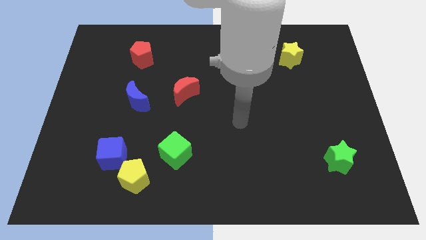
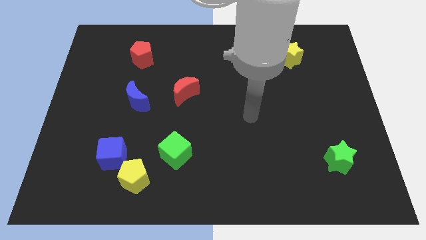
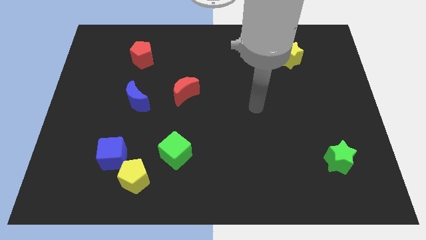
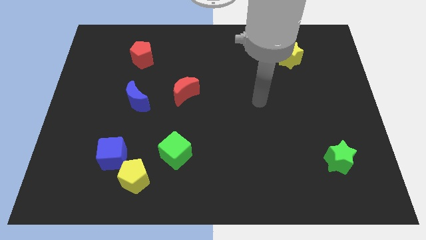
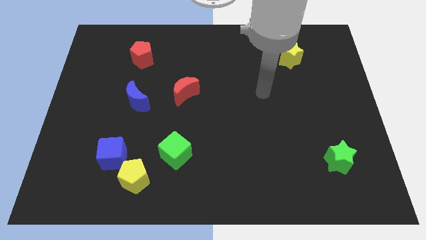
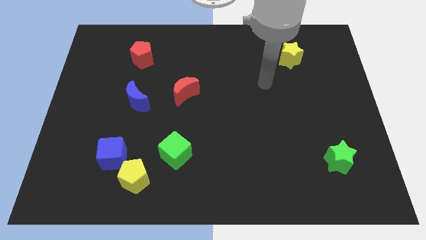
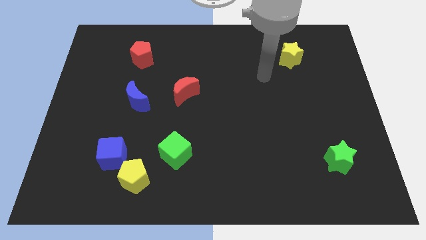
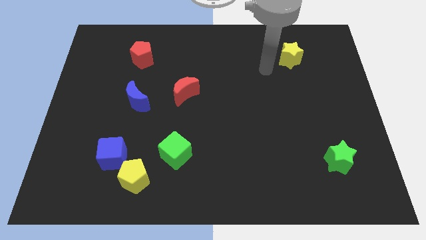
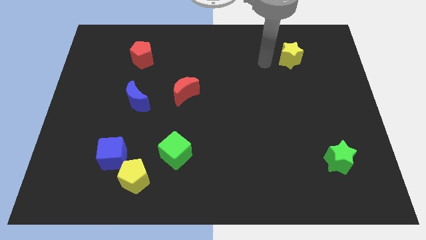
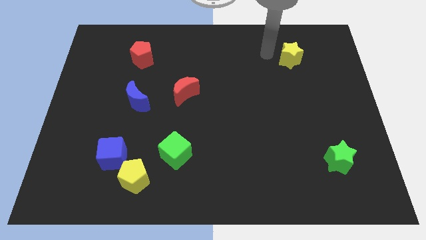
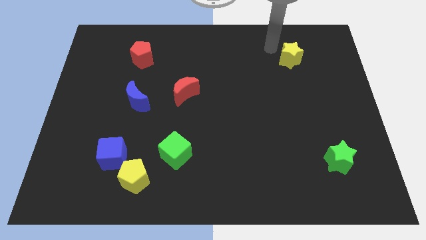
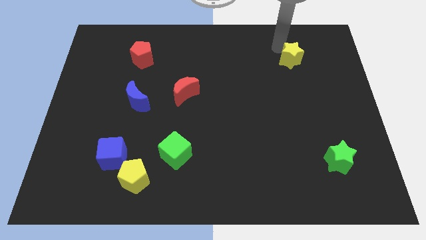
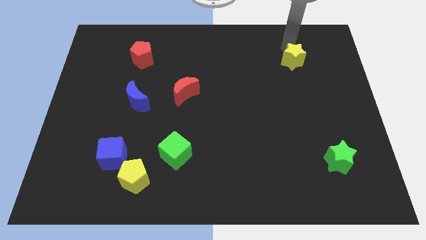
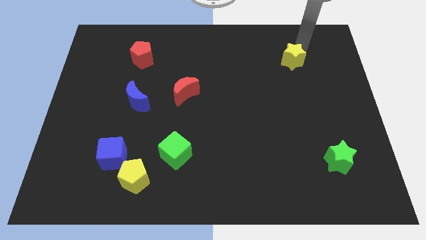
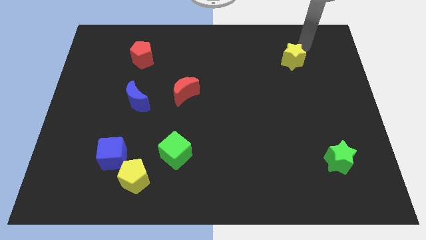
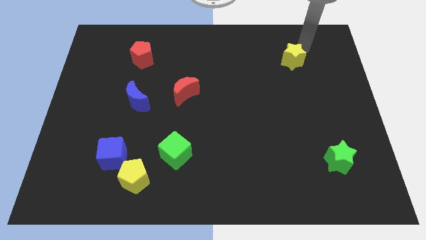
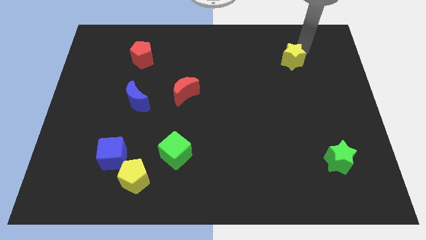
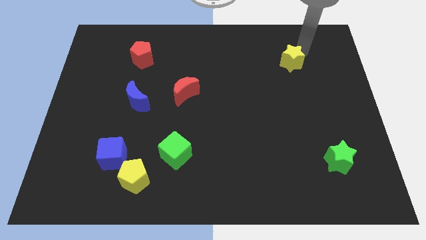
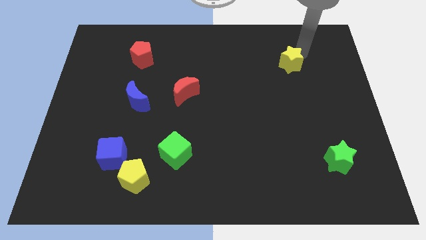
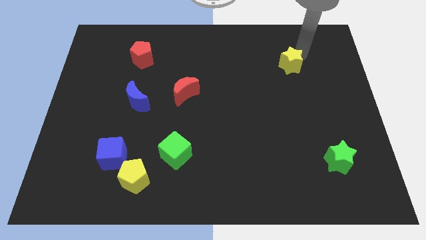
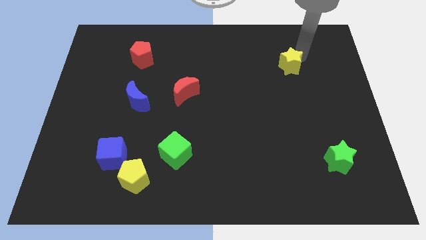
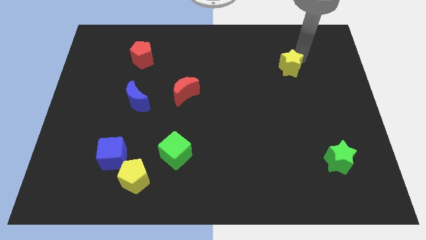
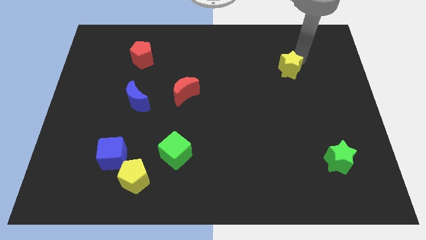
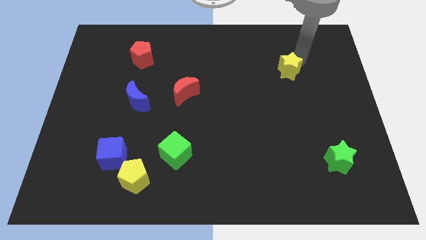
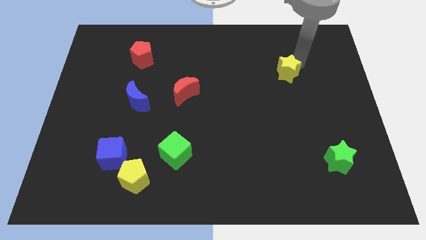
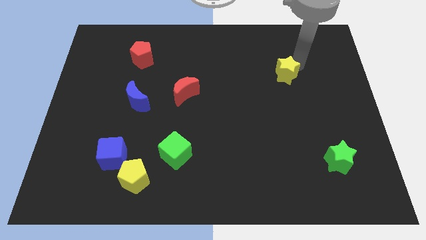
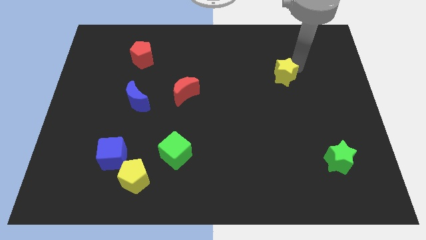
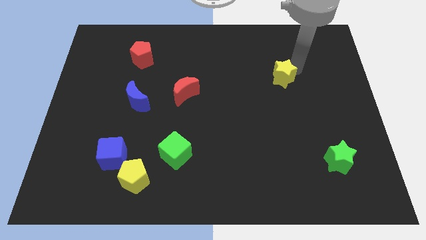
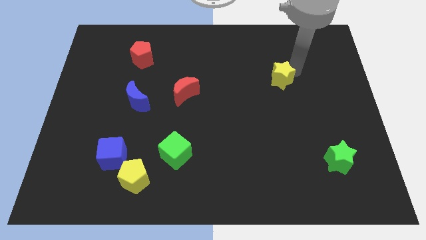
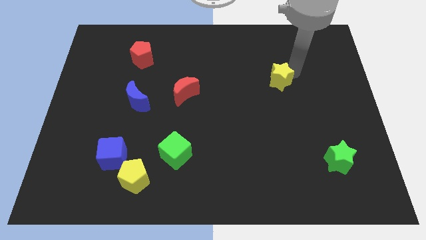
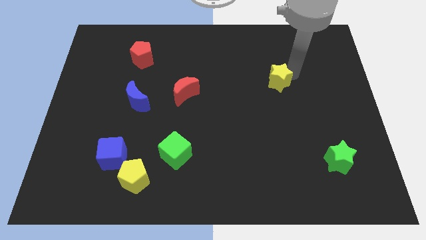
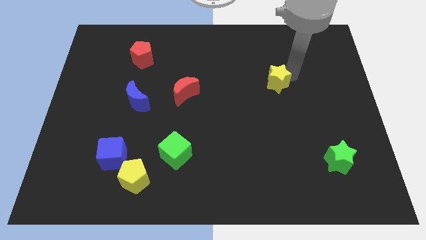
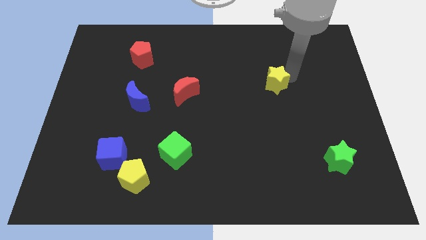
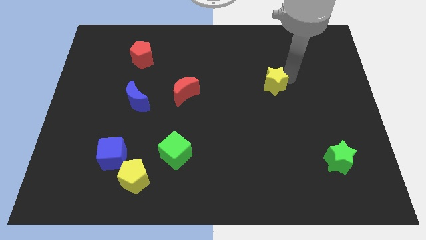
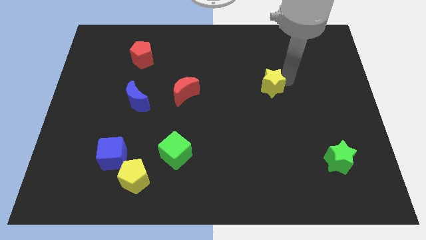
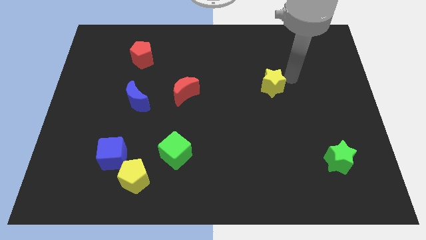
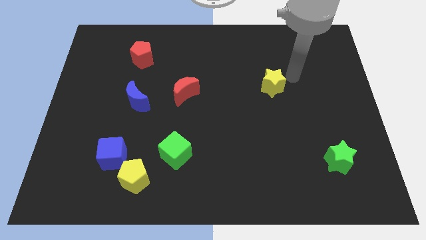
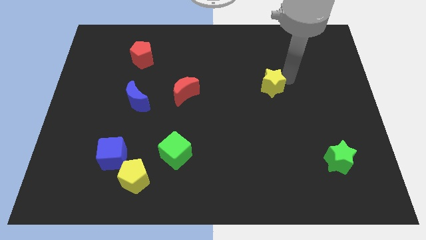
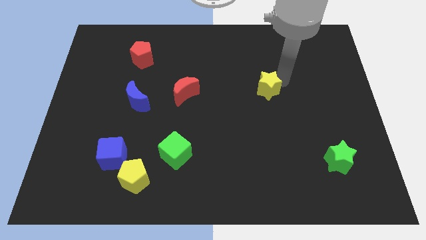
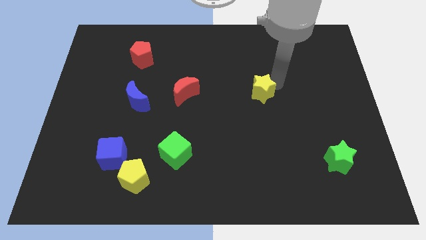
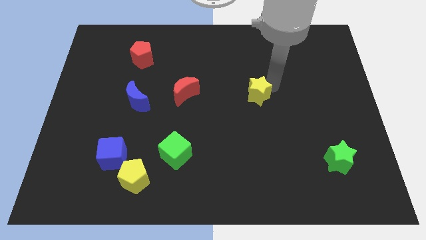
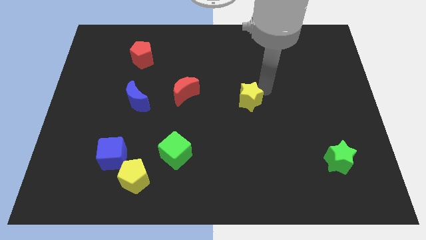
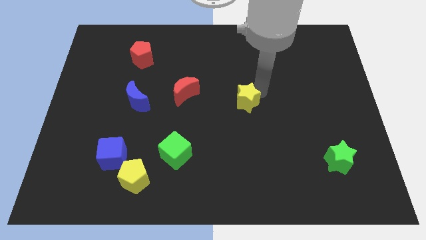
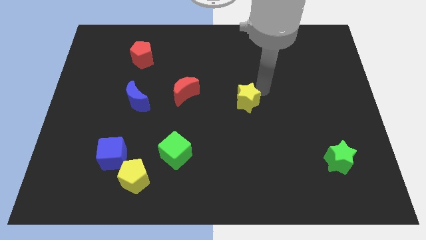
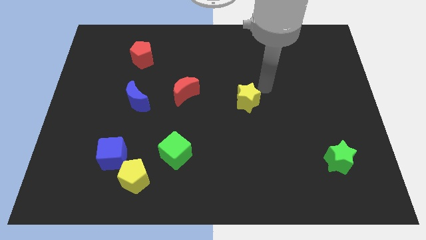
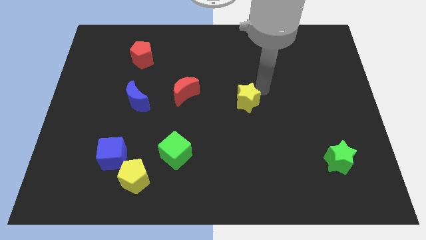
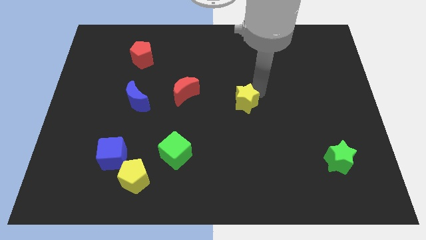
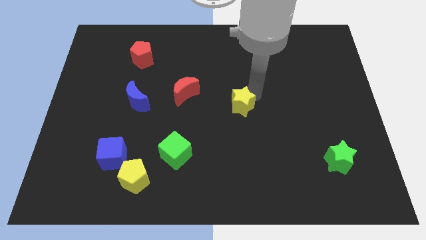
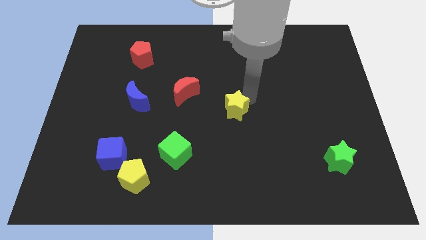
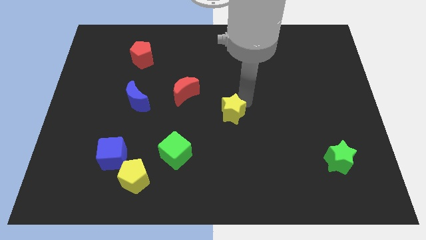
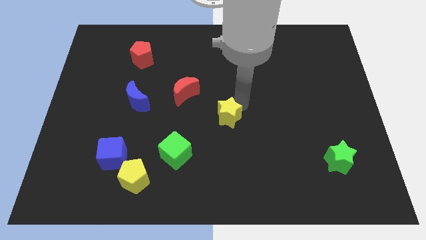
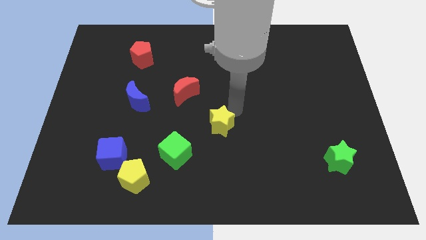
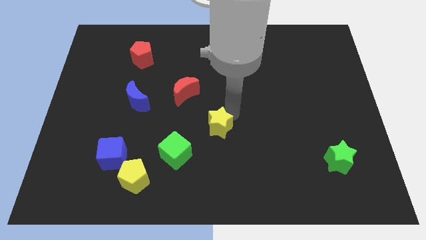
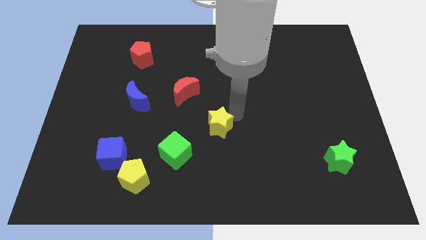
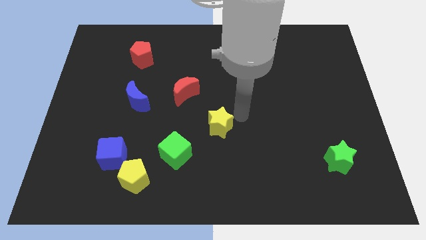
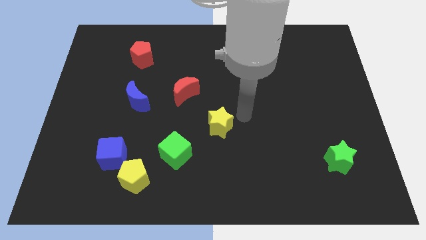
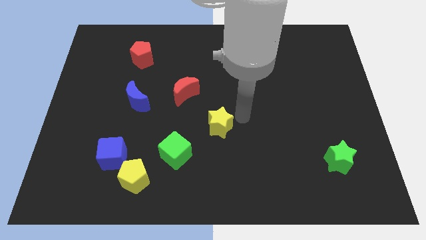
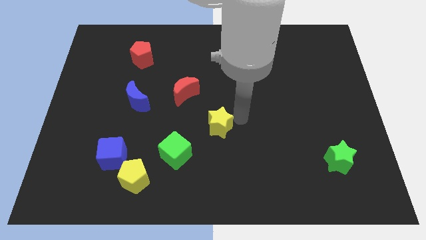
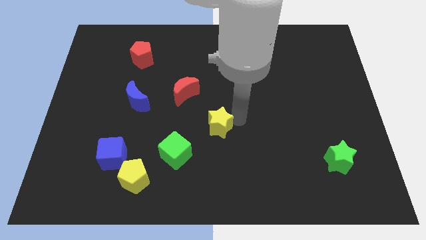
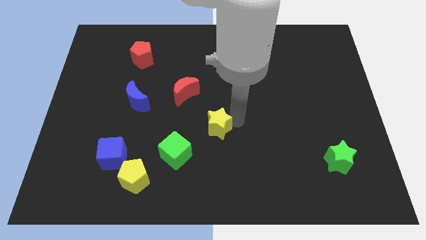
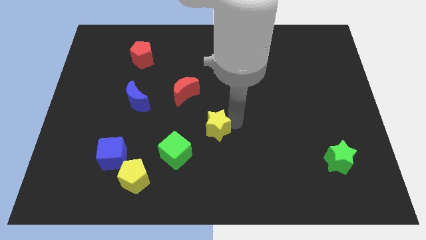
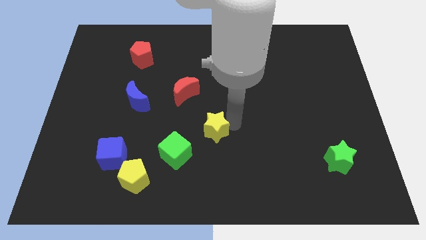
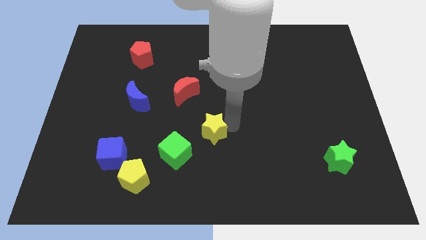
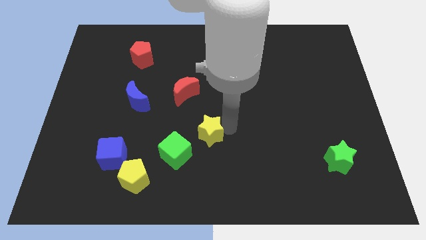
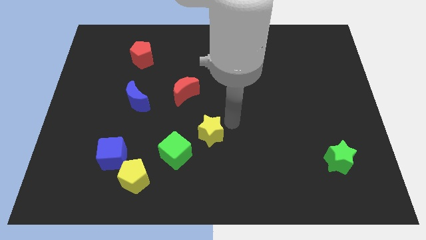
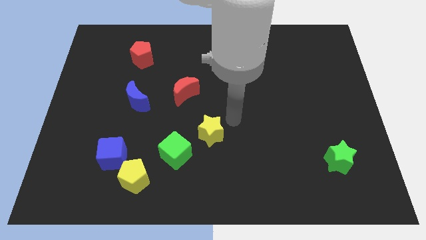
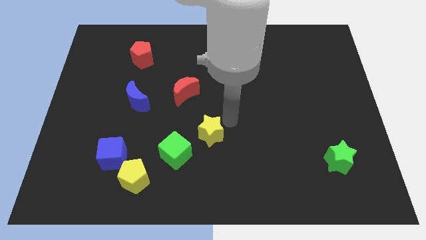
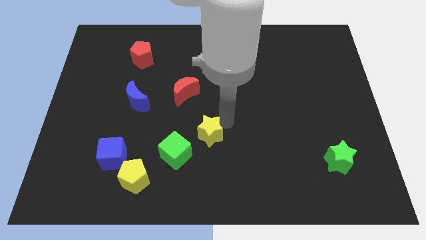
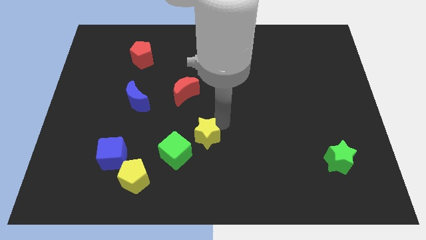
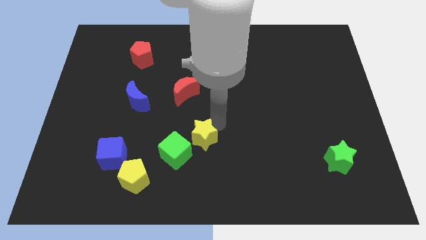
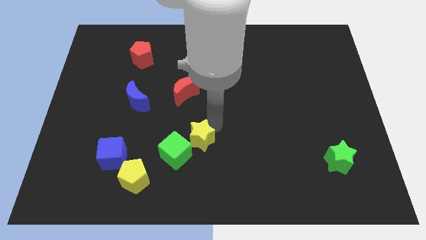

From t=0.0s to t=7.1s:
move the yellow star close to the green cube
